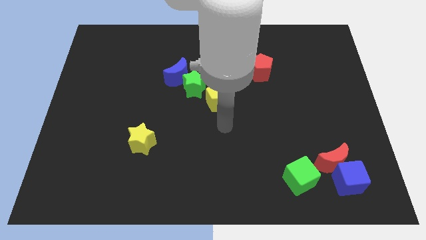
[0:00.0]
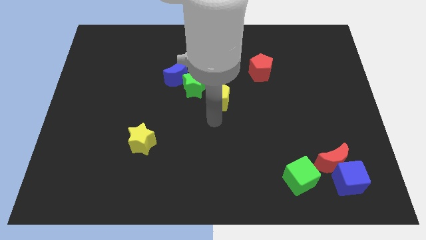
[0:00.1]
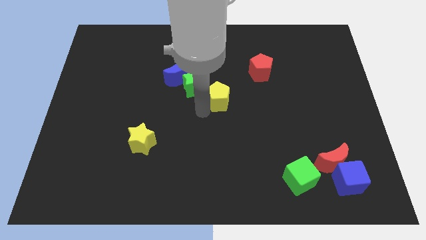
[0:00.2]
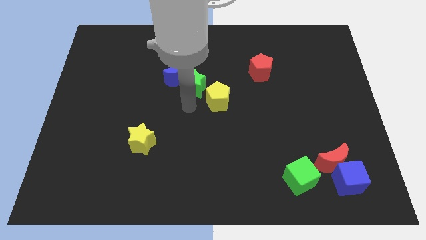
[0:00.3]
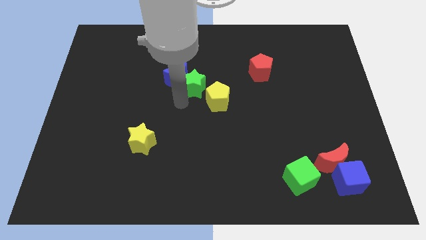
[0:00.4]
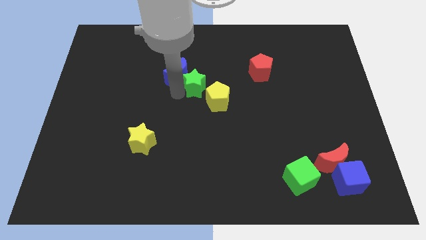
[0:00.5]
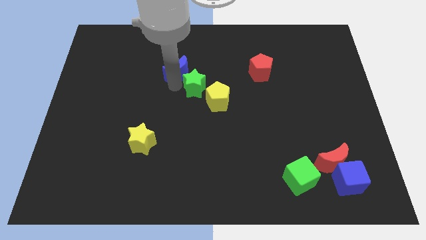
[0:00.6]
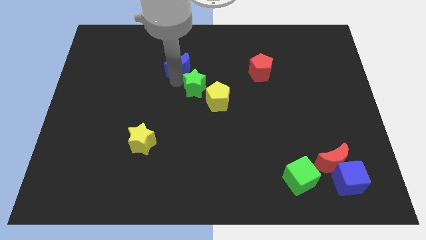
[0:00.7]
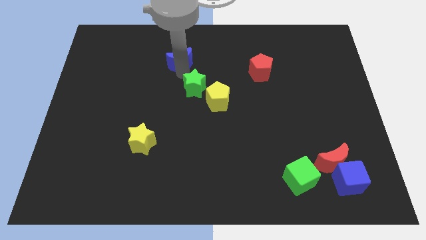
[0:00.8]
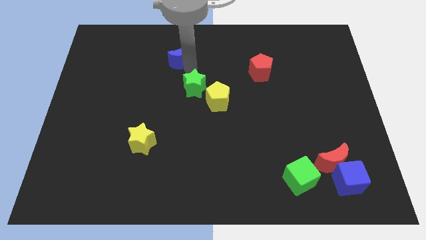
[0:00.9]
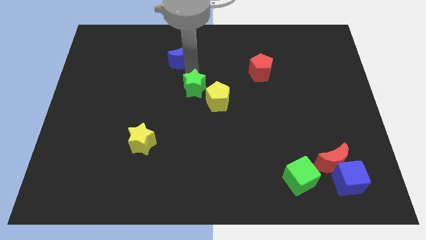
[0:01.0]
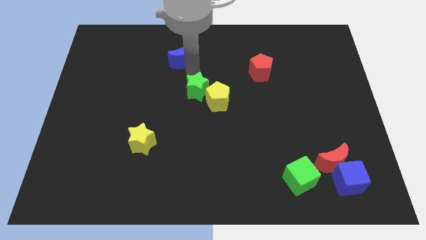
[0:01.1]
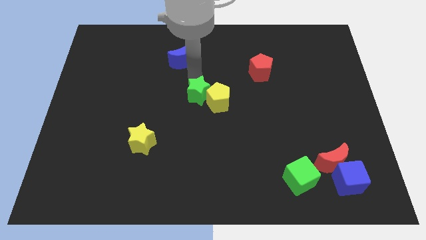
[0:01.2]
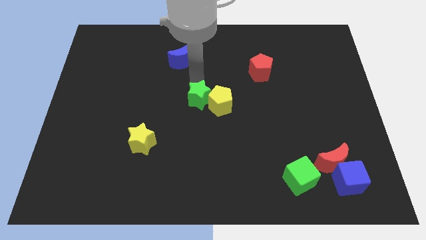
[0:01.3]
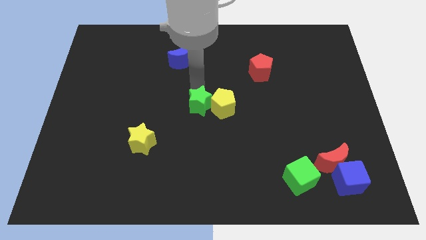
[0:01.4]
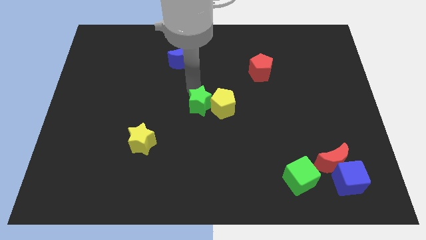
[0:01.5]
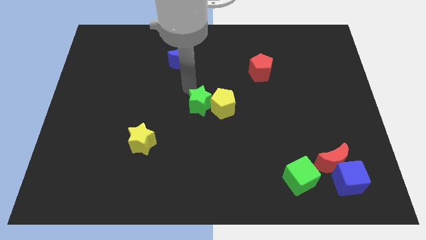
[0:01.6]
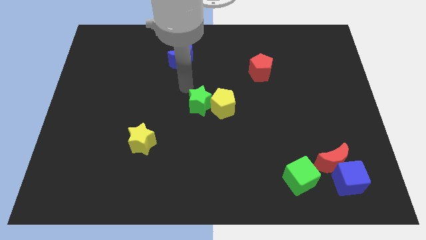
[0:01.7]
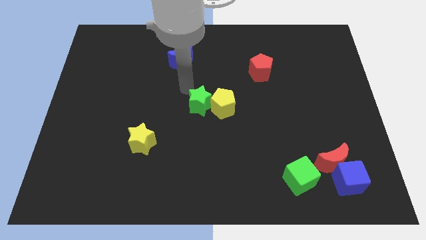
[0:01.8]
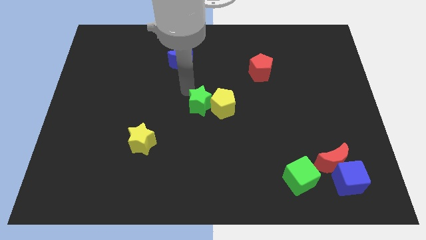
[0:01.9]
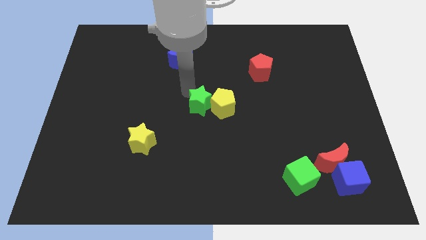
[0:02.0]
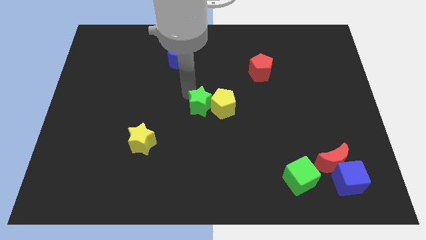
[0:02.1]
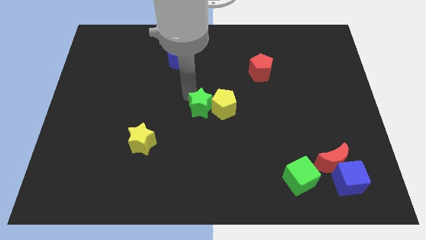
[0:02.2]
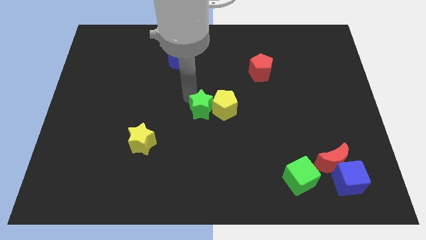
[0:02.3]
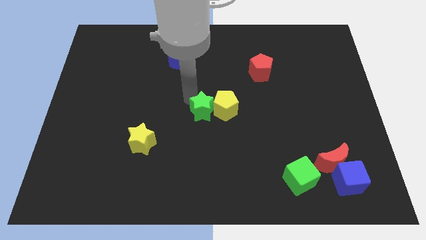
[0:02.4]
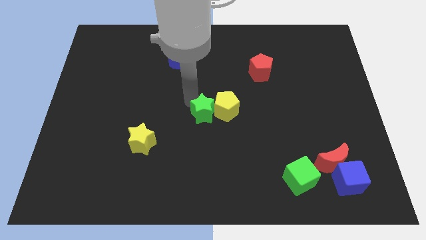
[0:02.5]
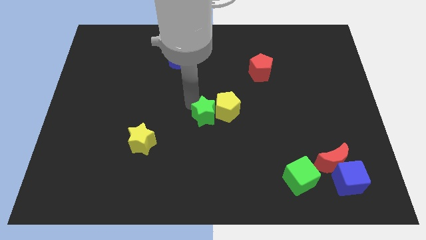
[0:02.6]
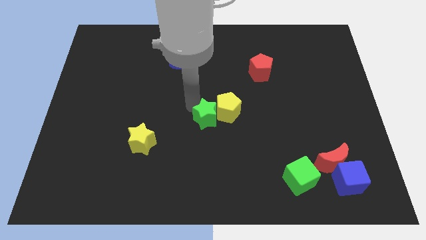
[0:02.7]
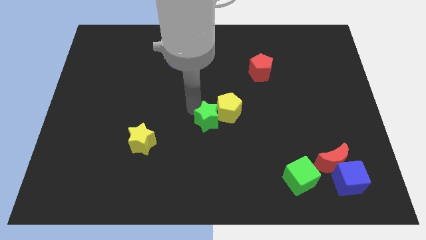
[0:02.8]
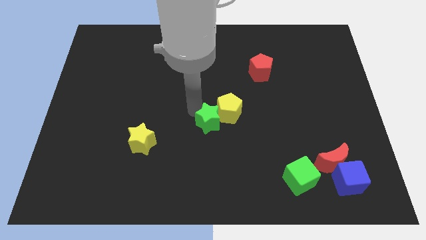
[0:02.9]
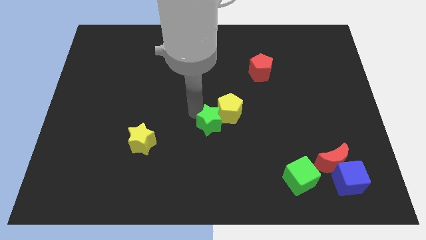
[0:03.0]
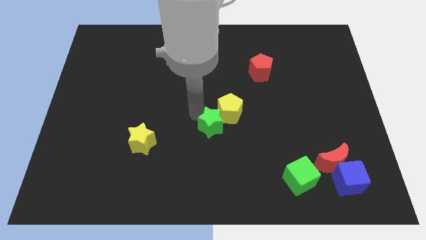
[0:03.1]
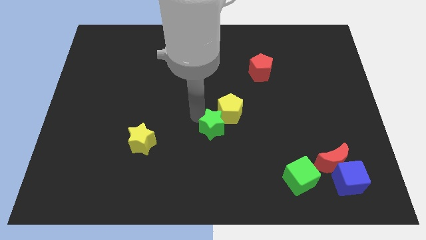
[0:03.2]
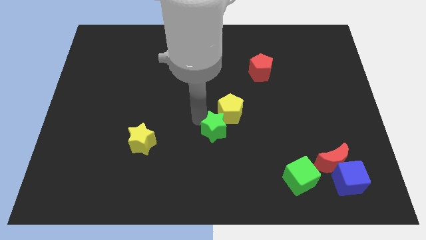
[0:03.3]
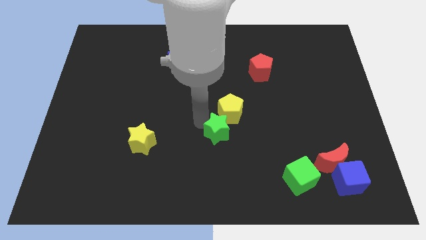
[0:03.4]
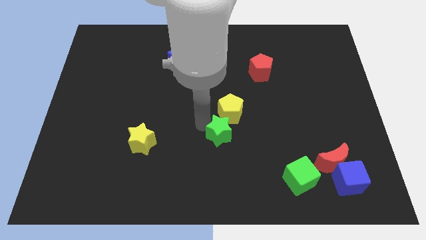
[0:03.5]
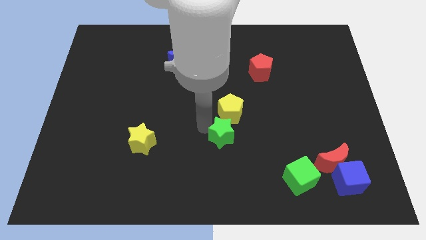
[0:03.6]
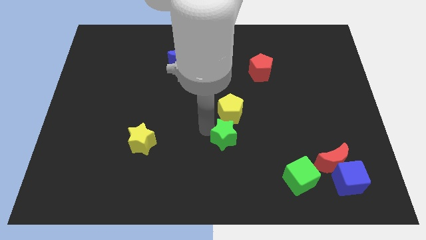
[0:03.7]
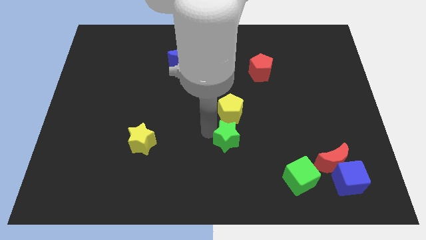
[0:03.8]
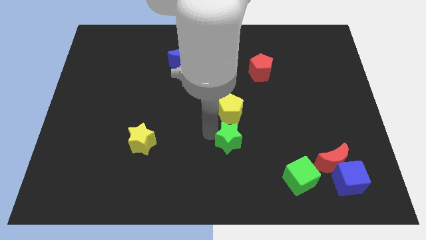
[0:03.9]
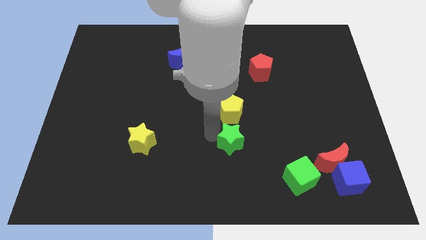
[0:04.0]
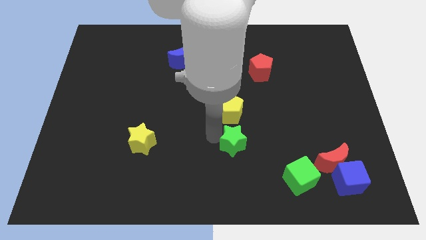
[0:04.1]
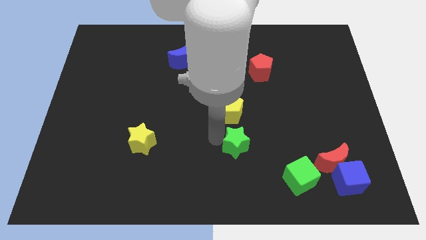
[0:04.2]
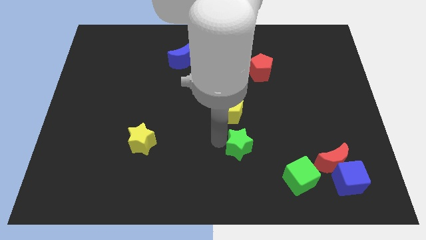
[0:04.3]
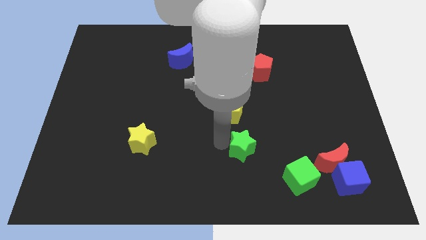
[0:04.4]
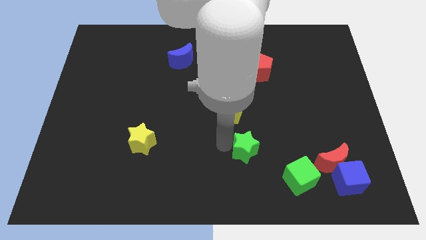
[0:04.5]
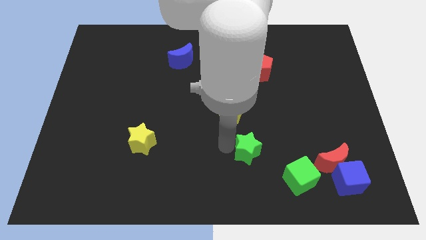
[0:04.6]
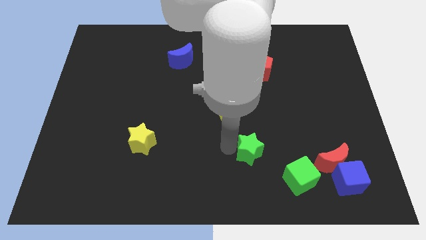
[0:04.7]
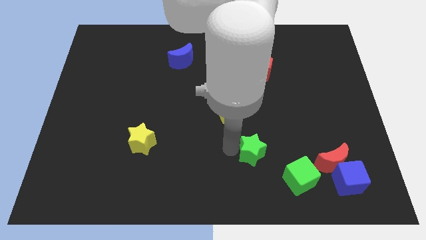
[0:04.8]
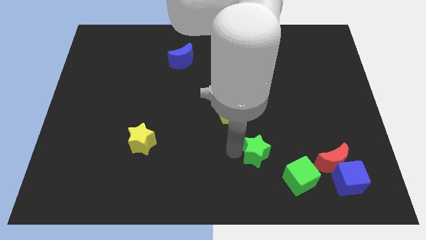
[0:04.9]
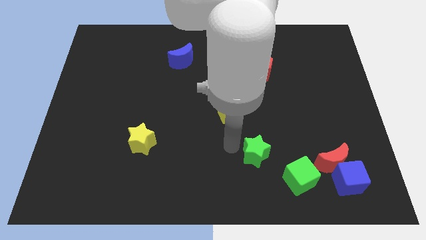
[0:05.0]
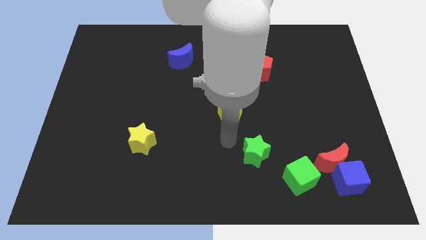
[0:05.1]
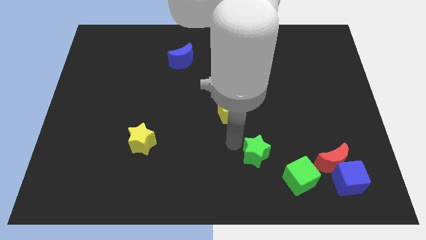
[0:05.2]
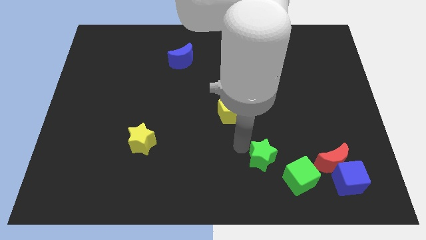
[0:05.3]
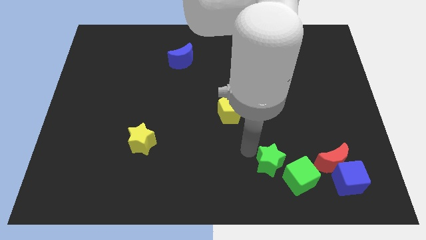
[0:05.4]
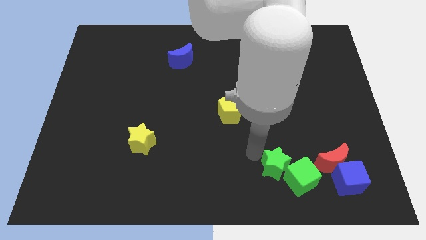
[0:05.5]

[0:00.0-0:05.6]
move the green star next to the green cube

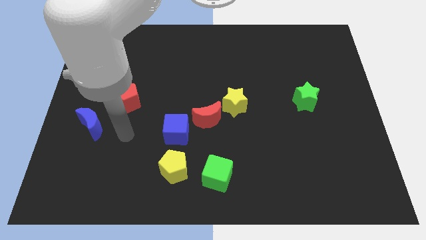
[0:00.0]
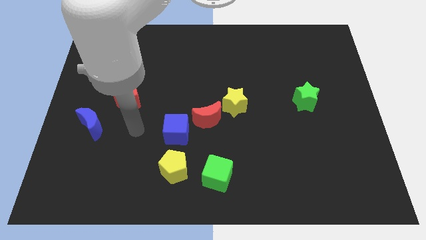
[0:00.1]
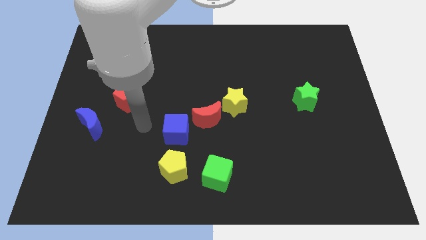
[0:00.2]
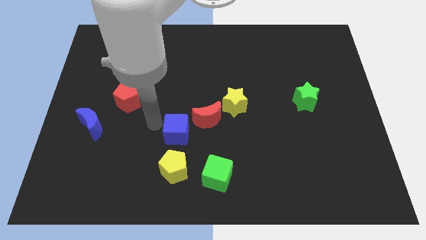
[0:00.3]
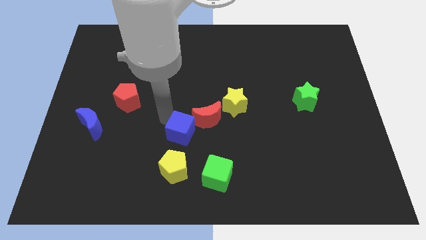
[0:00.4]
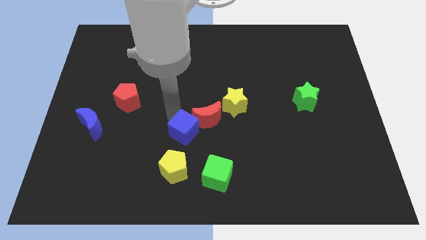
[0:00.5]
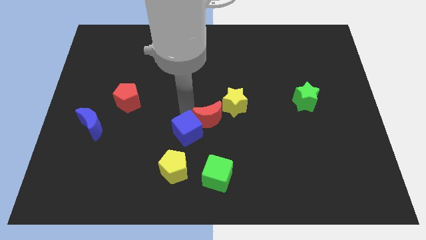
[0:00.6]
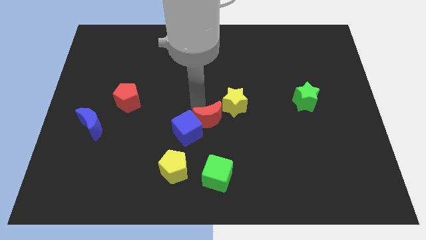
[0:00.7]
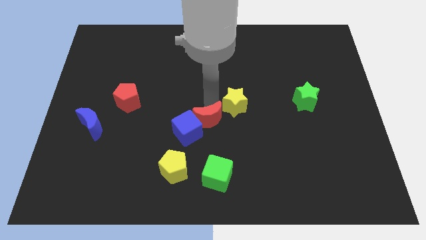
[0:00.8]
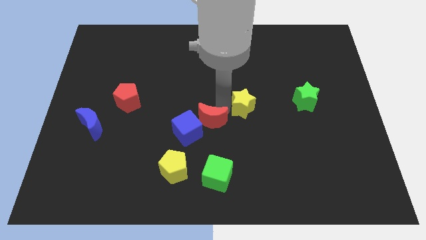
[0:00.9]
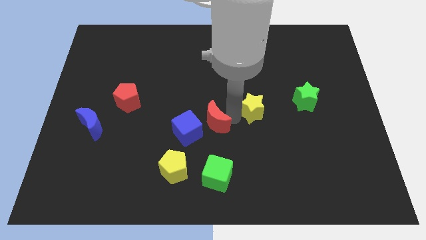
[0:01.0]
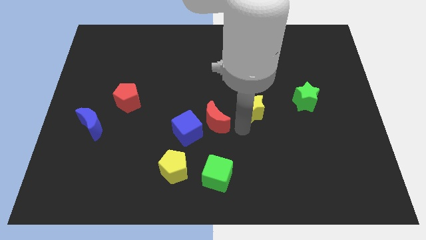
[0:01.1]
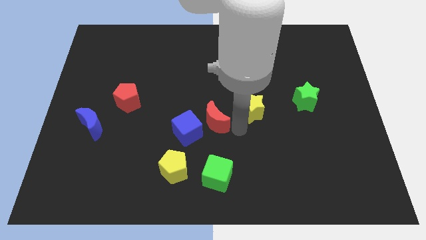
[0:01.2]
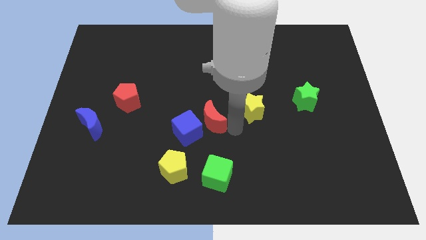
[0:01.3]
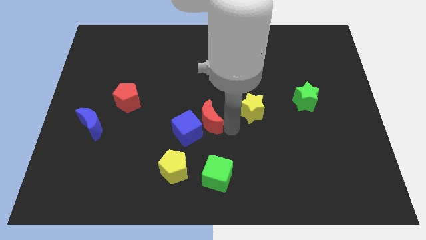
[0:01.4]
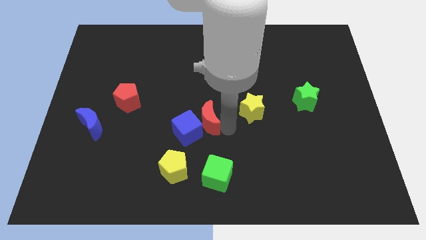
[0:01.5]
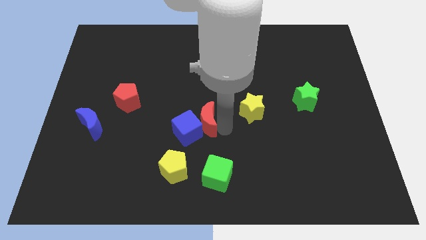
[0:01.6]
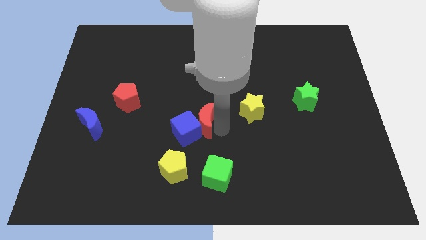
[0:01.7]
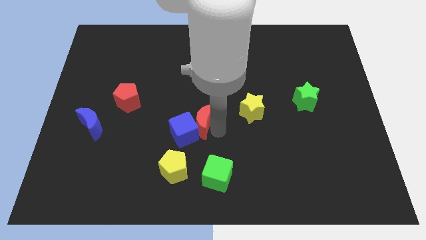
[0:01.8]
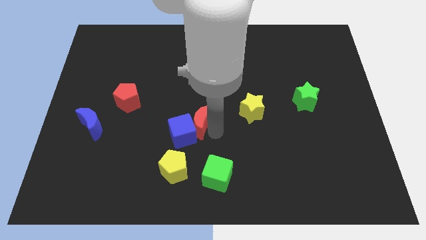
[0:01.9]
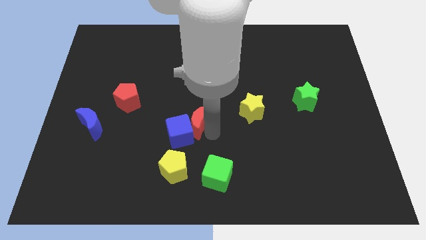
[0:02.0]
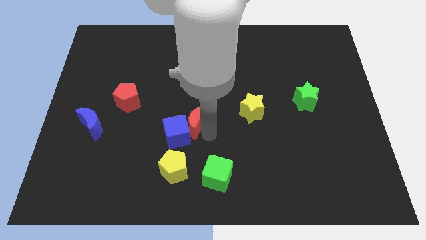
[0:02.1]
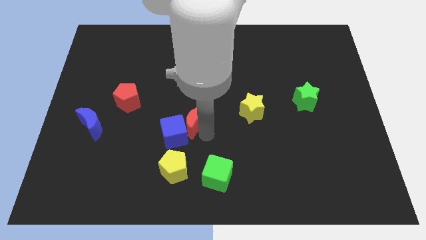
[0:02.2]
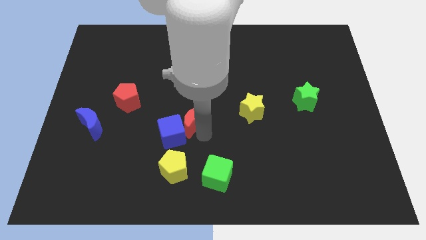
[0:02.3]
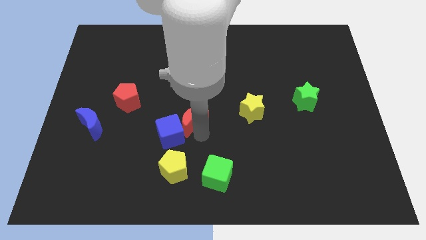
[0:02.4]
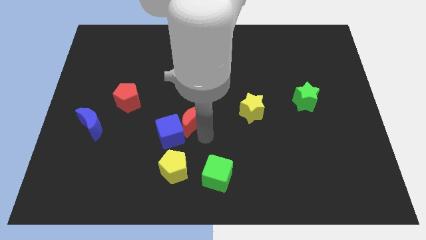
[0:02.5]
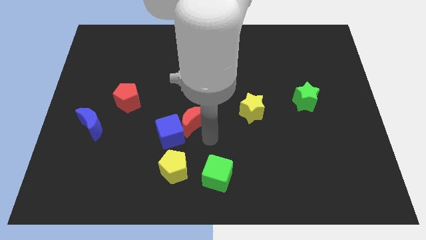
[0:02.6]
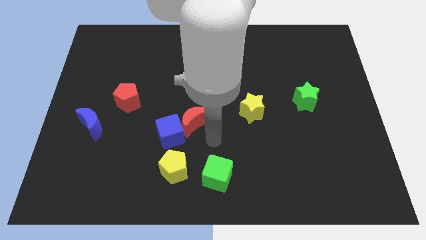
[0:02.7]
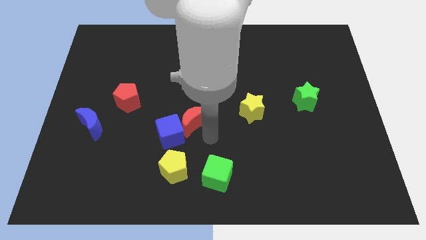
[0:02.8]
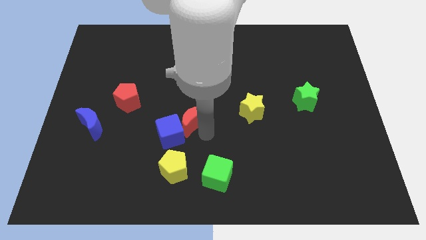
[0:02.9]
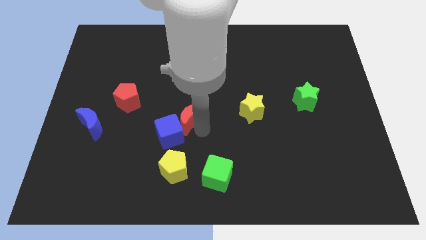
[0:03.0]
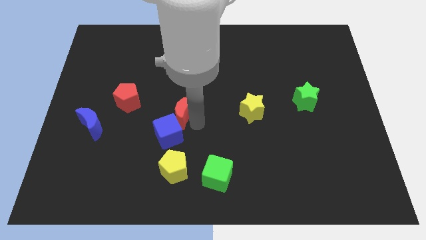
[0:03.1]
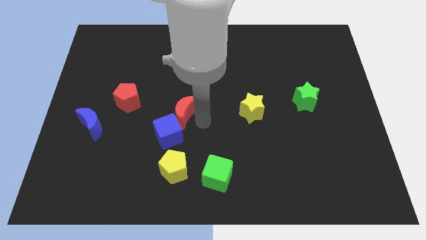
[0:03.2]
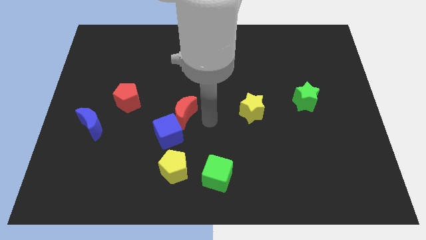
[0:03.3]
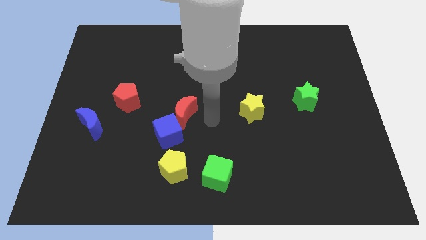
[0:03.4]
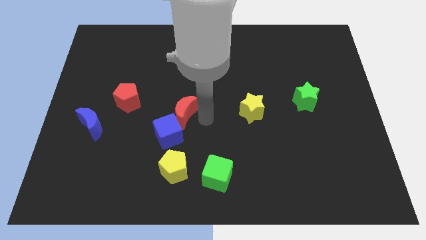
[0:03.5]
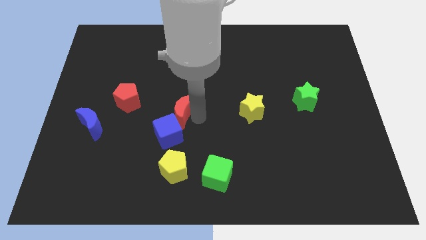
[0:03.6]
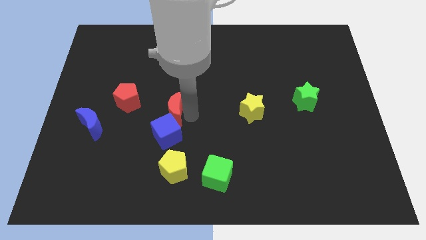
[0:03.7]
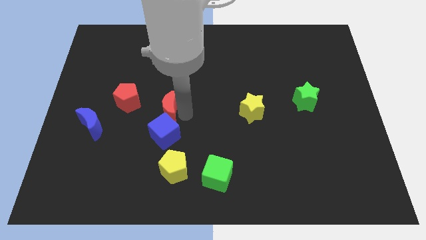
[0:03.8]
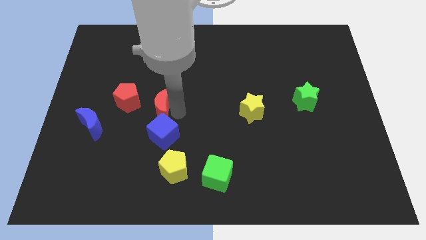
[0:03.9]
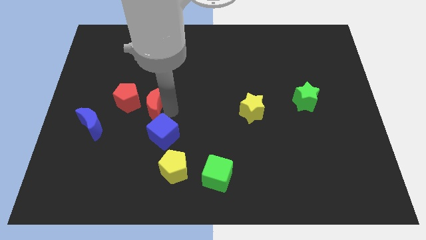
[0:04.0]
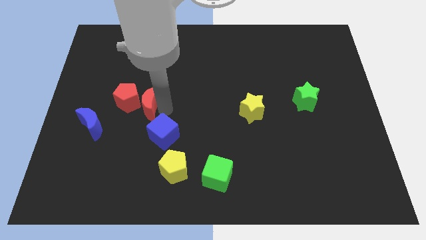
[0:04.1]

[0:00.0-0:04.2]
move the red moon close to the red pentagon
